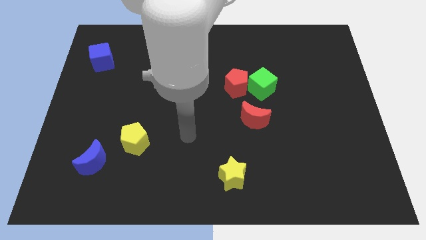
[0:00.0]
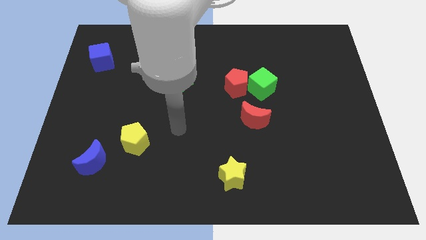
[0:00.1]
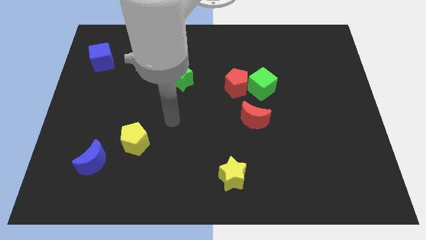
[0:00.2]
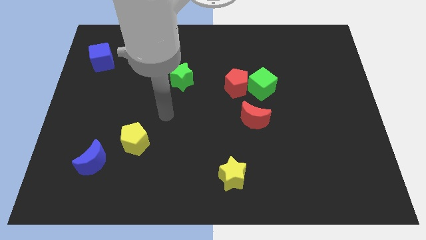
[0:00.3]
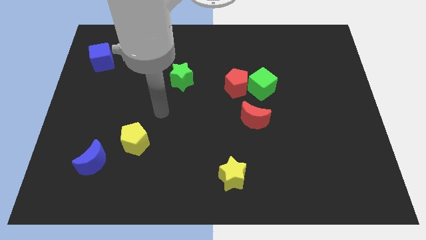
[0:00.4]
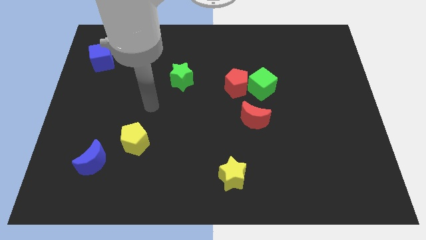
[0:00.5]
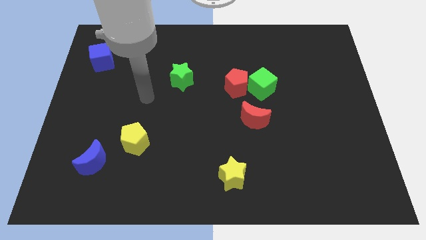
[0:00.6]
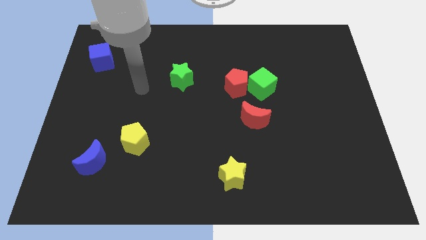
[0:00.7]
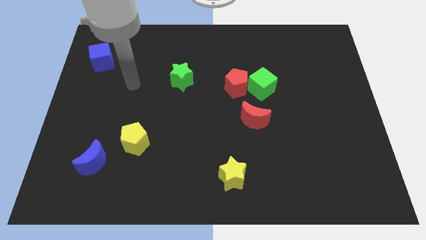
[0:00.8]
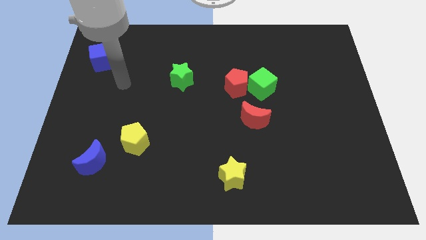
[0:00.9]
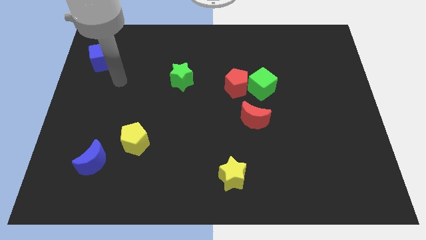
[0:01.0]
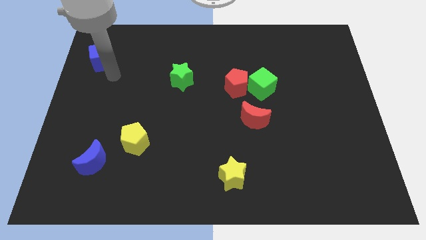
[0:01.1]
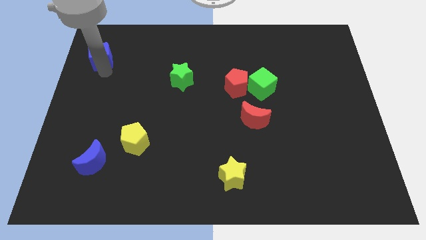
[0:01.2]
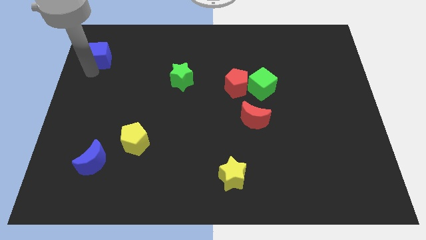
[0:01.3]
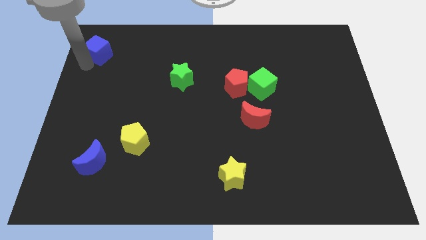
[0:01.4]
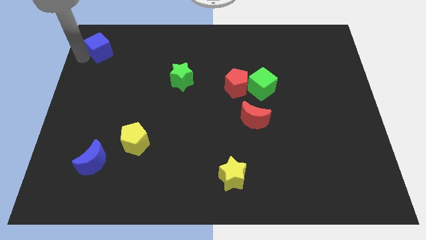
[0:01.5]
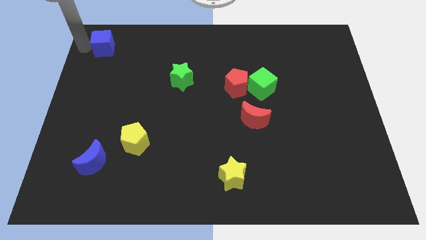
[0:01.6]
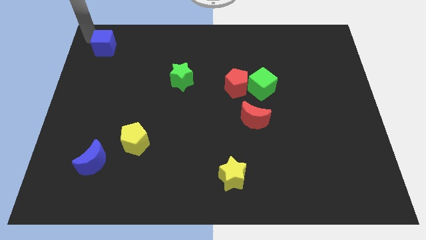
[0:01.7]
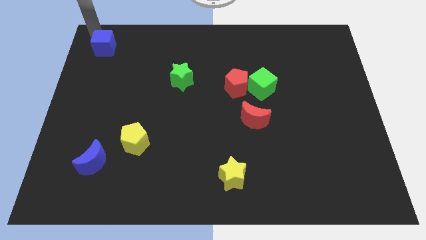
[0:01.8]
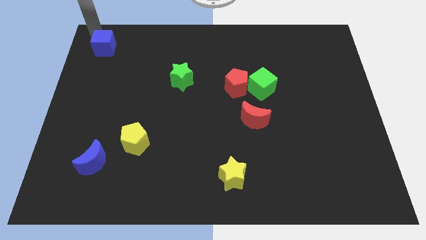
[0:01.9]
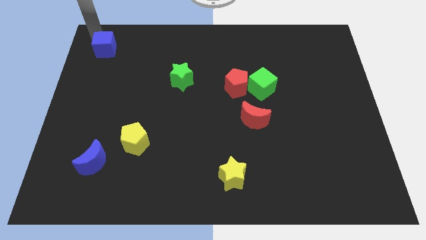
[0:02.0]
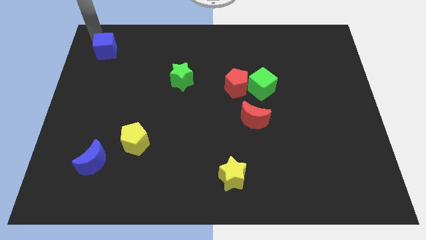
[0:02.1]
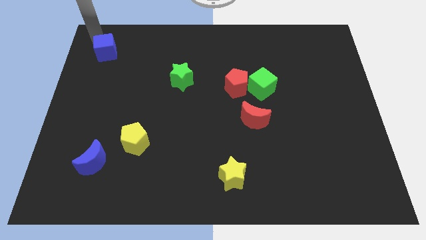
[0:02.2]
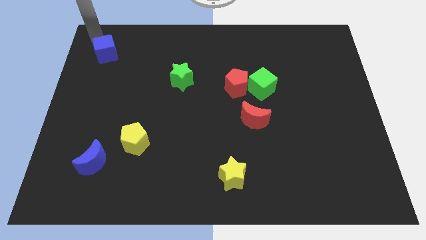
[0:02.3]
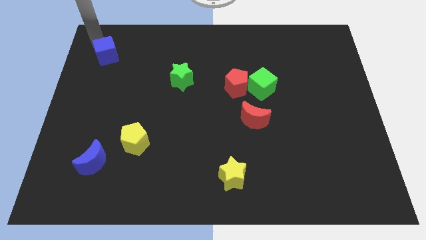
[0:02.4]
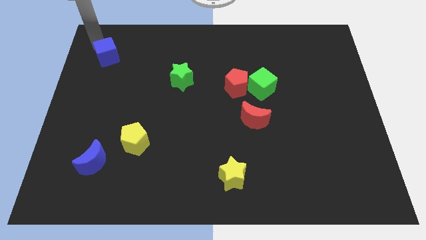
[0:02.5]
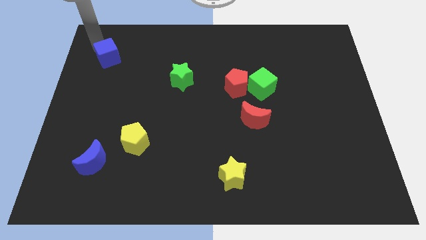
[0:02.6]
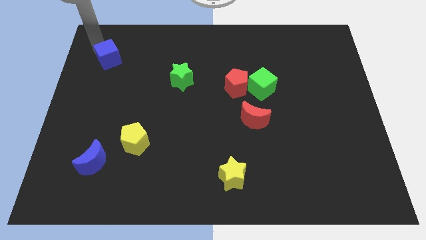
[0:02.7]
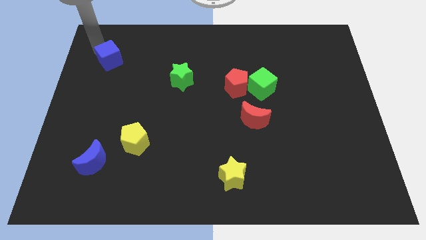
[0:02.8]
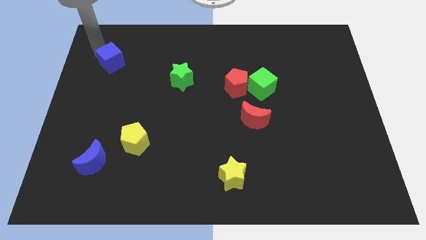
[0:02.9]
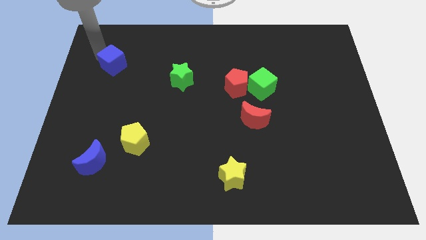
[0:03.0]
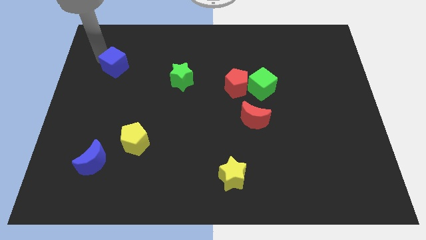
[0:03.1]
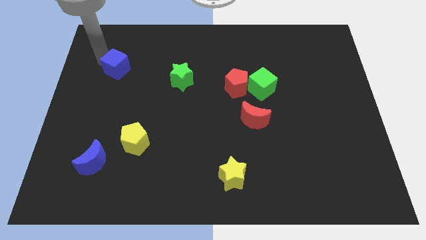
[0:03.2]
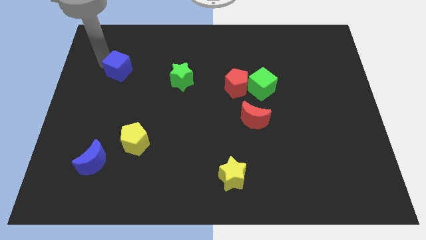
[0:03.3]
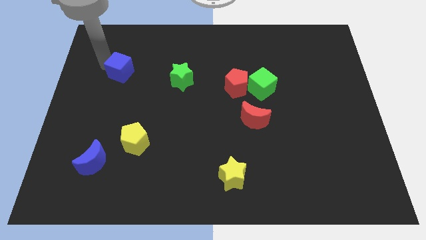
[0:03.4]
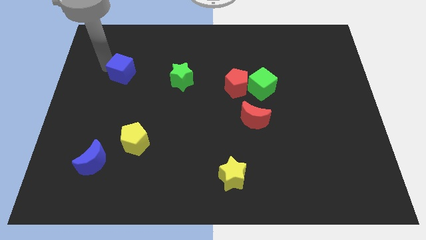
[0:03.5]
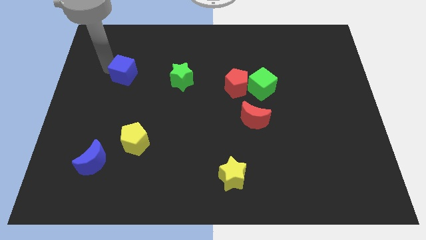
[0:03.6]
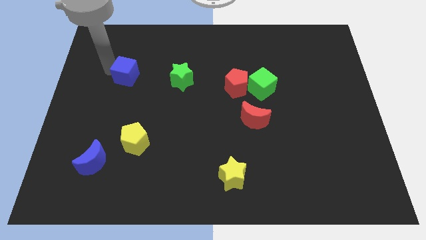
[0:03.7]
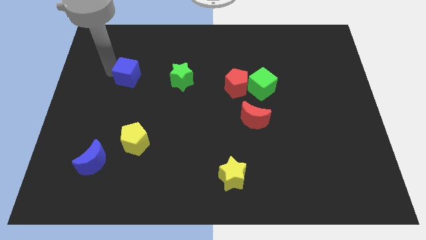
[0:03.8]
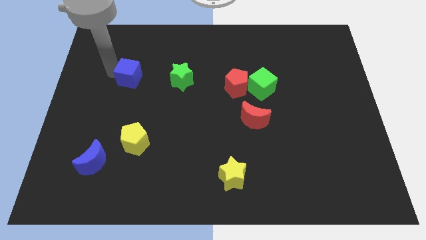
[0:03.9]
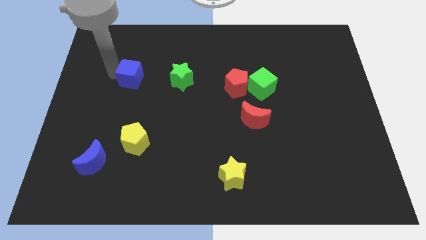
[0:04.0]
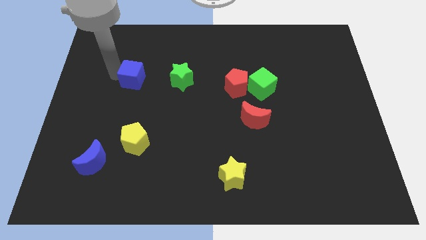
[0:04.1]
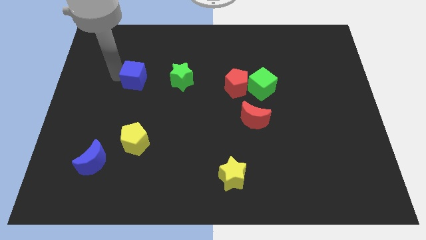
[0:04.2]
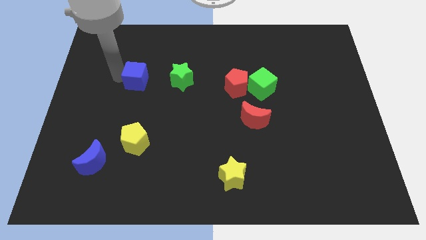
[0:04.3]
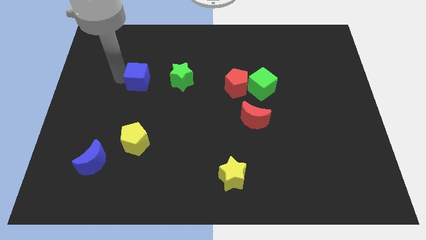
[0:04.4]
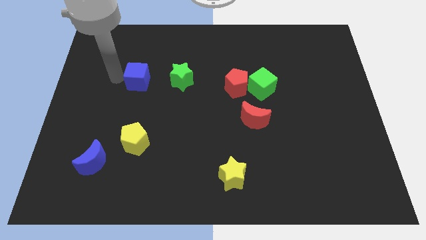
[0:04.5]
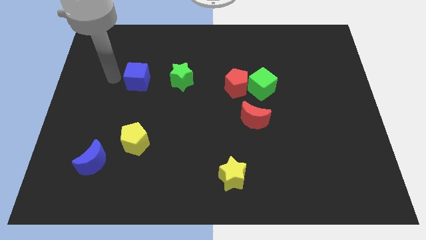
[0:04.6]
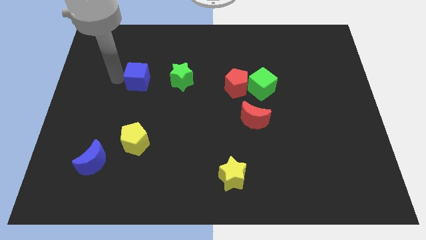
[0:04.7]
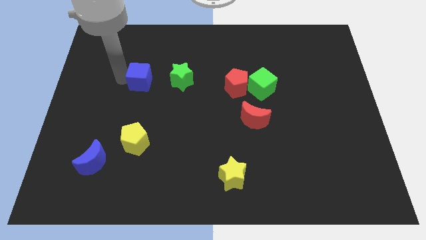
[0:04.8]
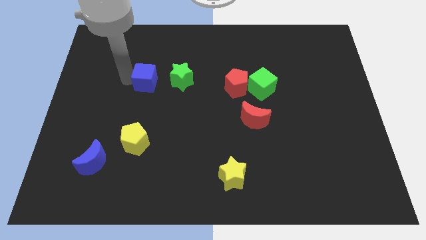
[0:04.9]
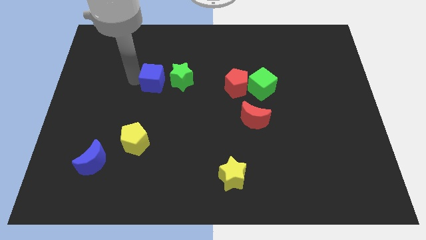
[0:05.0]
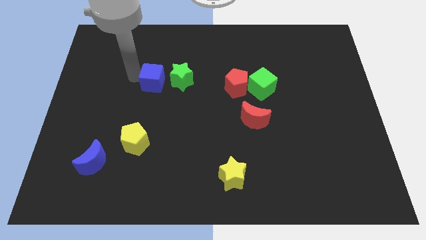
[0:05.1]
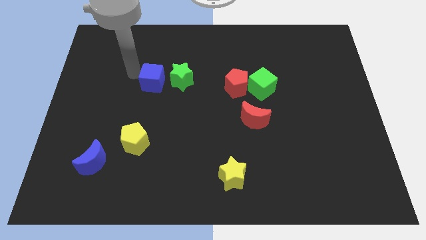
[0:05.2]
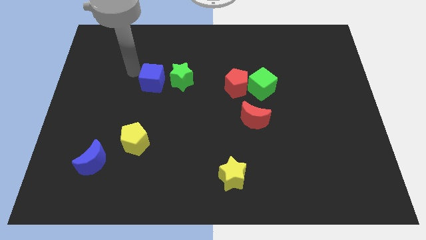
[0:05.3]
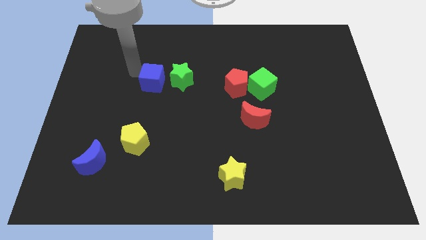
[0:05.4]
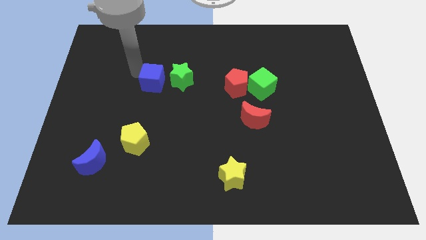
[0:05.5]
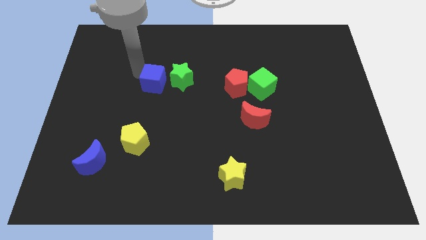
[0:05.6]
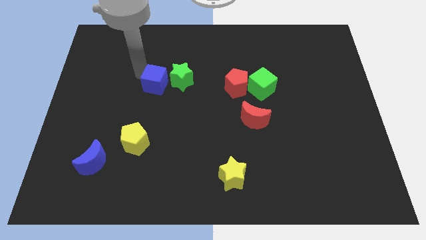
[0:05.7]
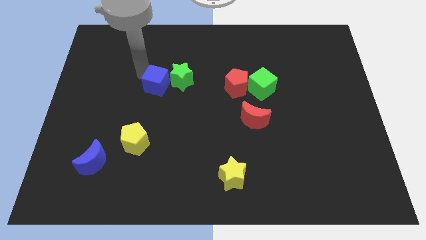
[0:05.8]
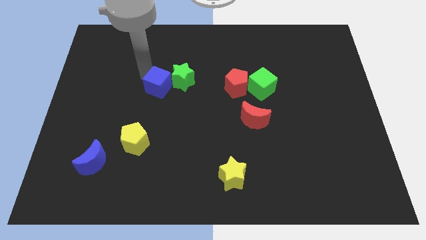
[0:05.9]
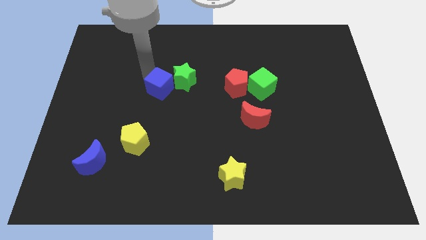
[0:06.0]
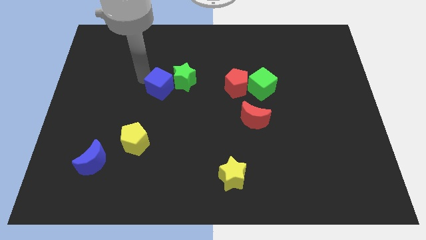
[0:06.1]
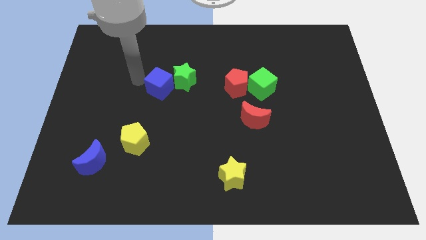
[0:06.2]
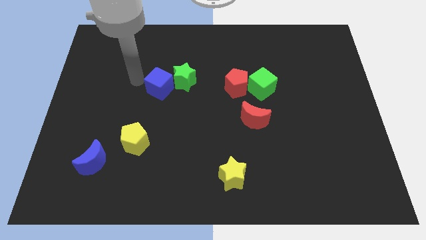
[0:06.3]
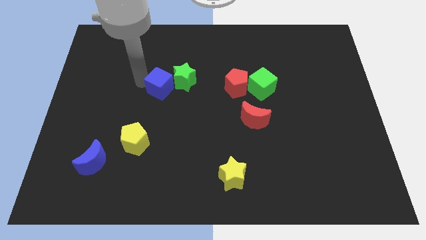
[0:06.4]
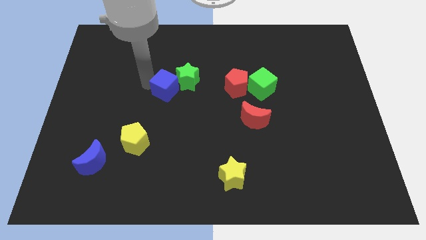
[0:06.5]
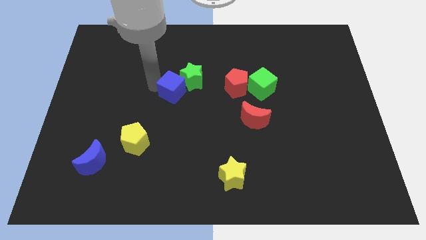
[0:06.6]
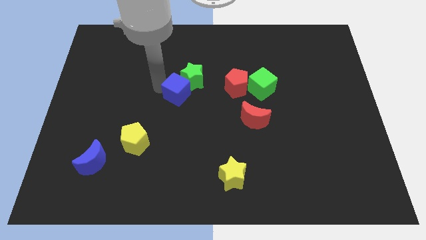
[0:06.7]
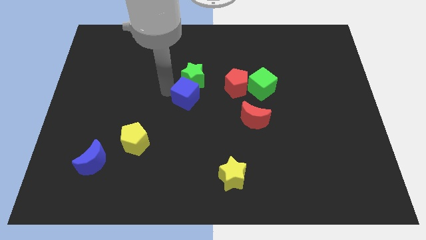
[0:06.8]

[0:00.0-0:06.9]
slide the blue cube to the bottom right side of the green star
